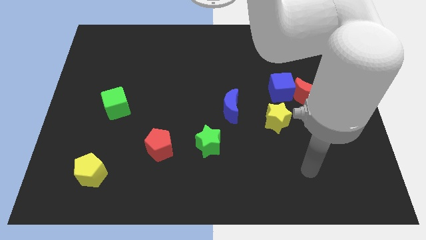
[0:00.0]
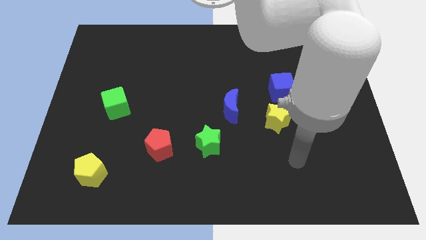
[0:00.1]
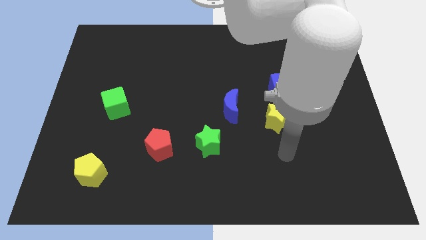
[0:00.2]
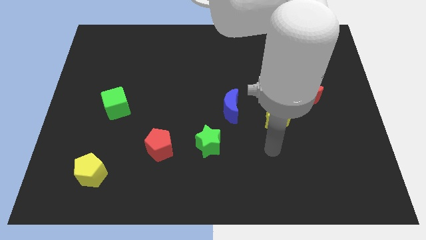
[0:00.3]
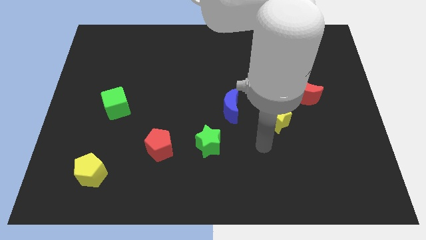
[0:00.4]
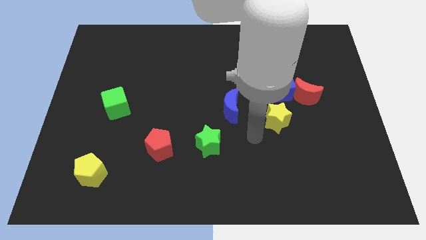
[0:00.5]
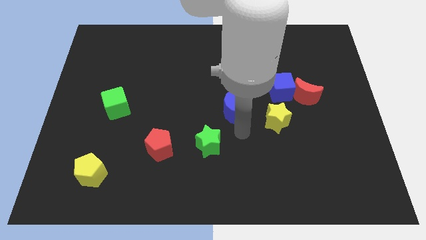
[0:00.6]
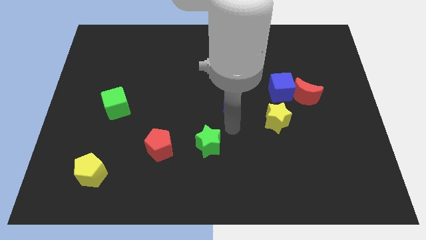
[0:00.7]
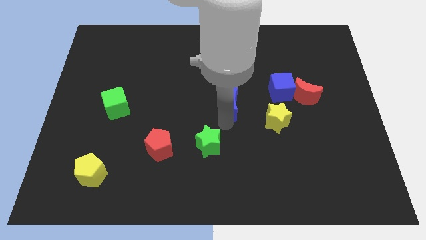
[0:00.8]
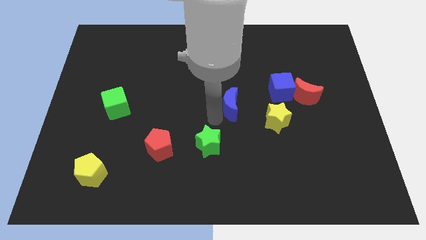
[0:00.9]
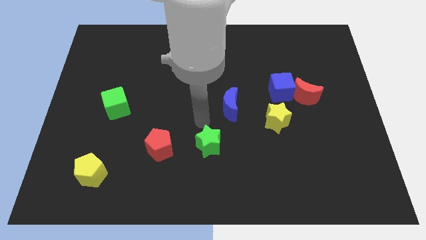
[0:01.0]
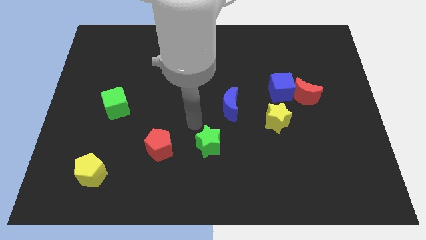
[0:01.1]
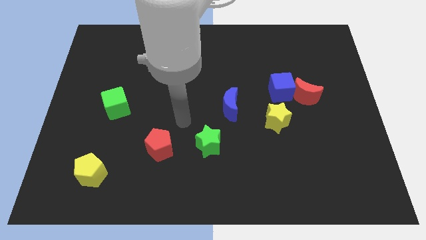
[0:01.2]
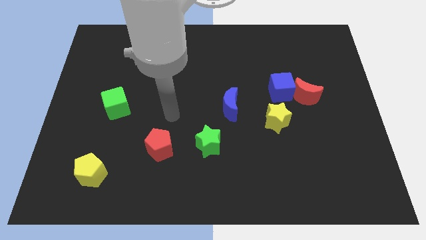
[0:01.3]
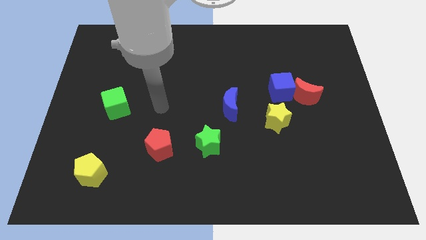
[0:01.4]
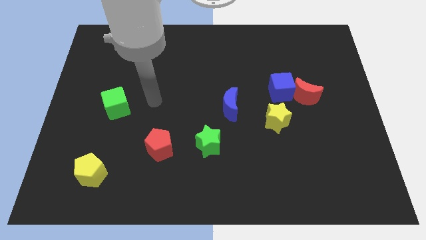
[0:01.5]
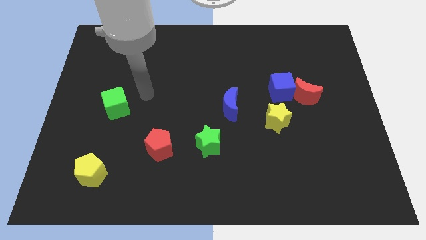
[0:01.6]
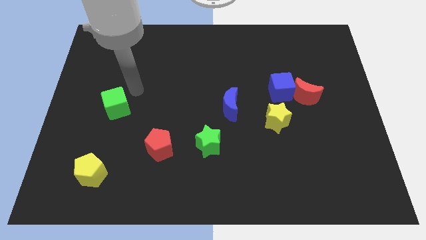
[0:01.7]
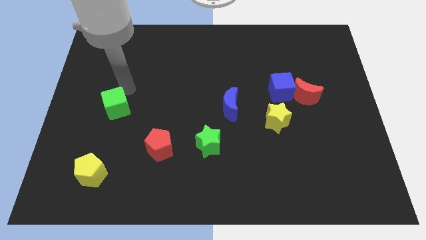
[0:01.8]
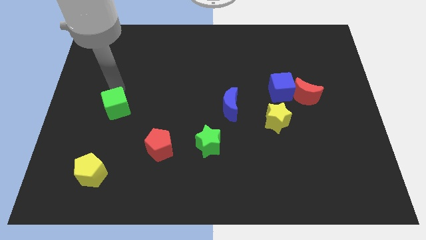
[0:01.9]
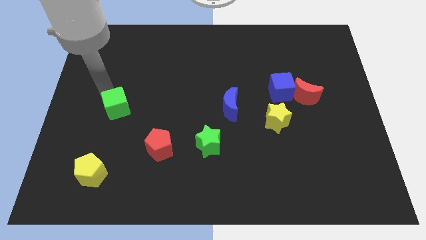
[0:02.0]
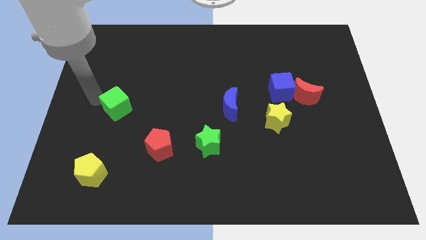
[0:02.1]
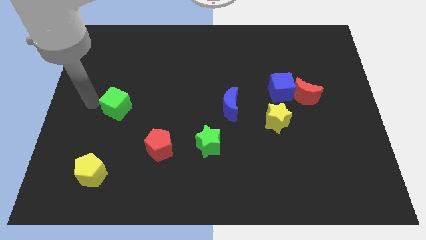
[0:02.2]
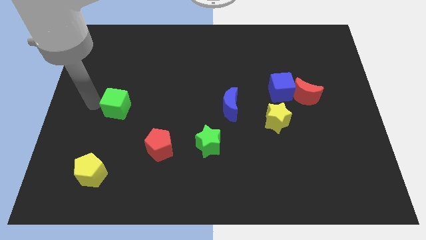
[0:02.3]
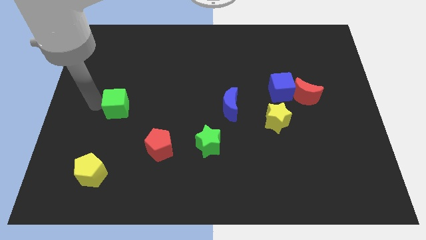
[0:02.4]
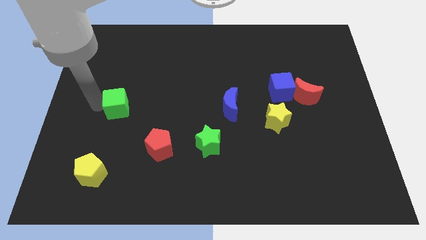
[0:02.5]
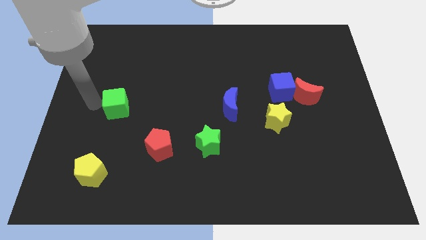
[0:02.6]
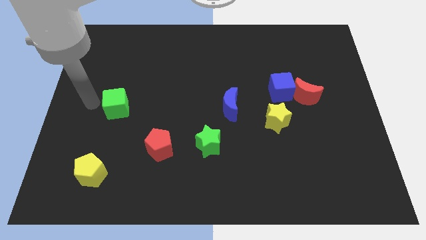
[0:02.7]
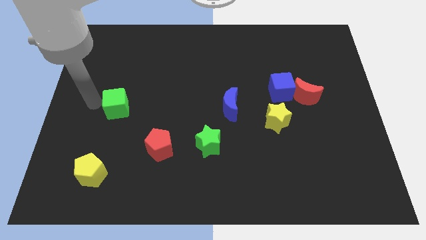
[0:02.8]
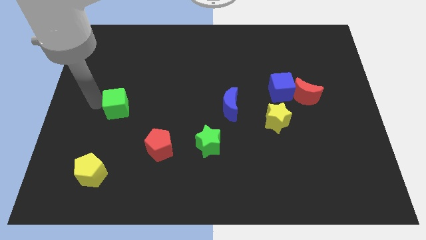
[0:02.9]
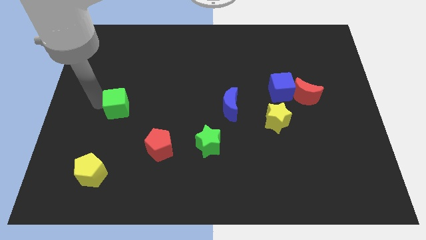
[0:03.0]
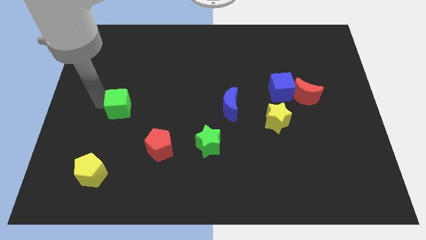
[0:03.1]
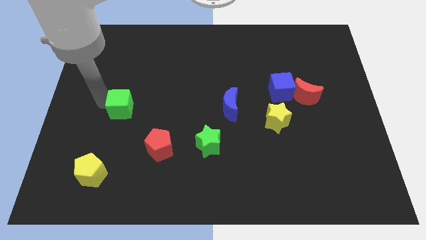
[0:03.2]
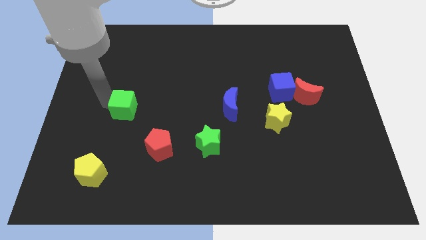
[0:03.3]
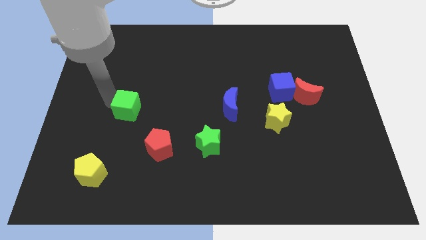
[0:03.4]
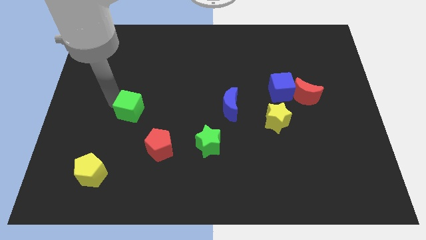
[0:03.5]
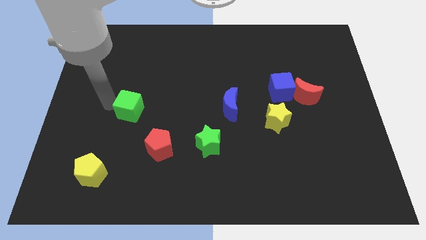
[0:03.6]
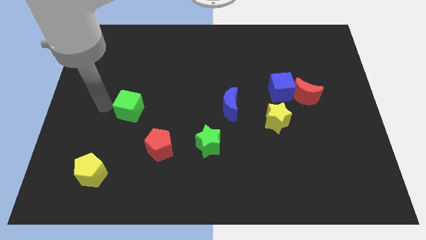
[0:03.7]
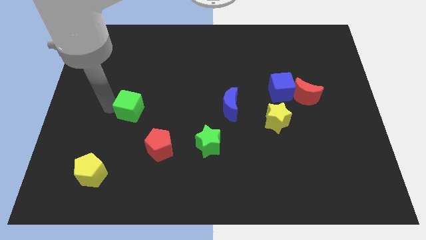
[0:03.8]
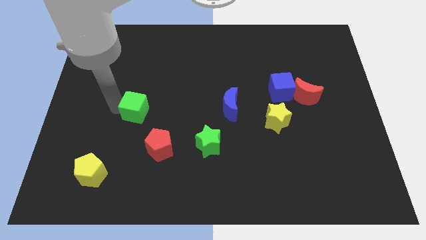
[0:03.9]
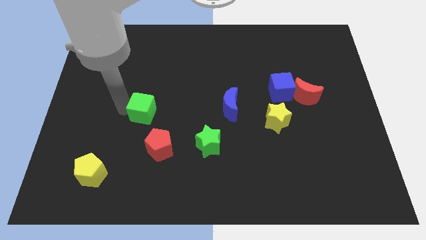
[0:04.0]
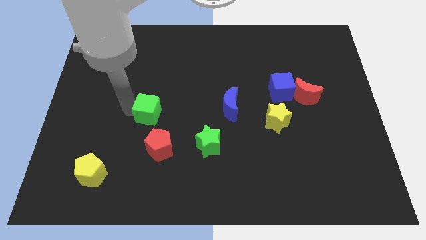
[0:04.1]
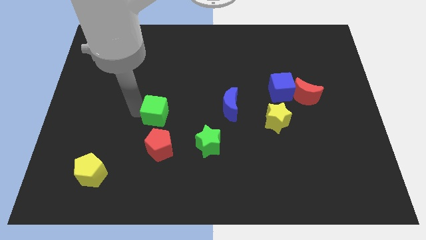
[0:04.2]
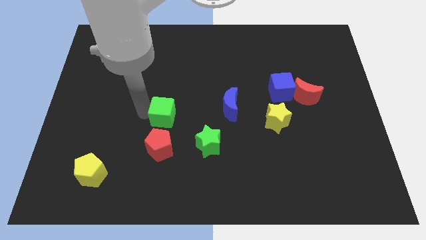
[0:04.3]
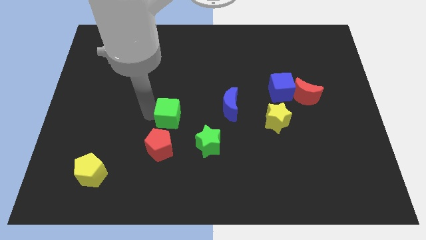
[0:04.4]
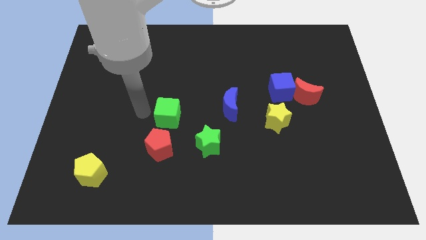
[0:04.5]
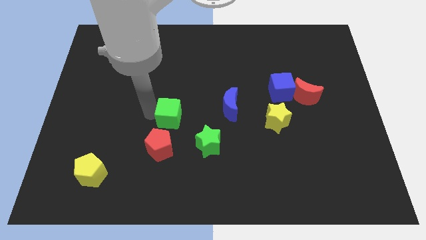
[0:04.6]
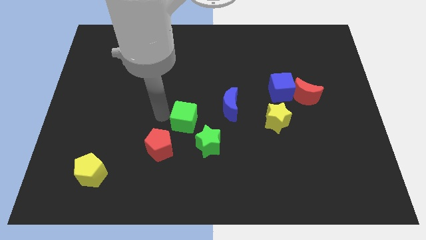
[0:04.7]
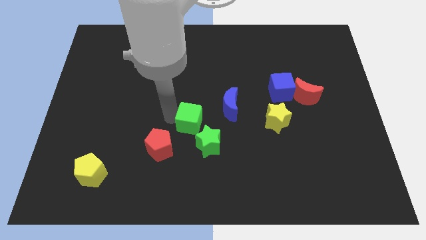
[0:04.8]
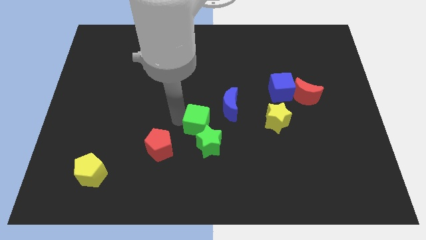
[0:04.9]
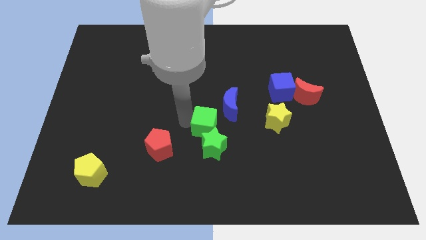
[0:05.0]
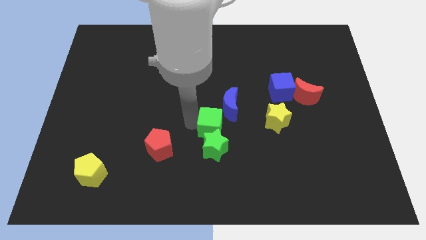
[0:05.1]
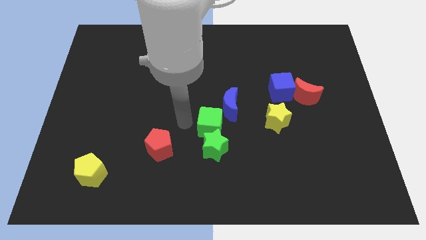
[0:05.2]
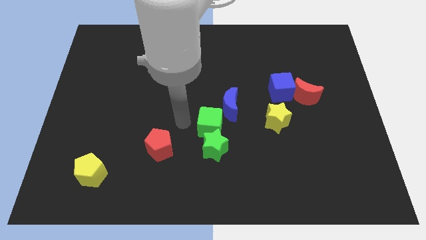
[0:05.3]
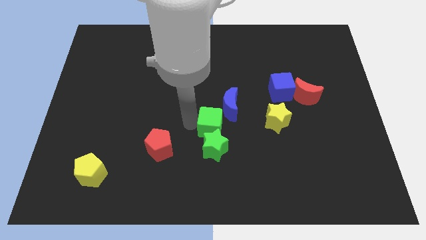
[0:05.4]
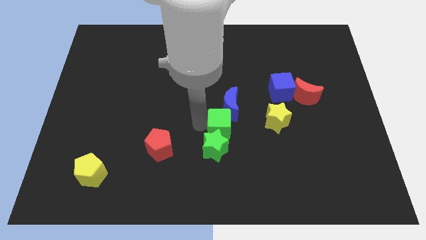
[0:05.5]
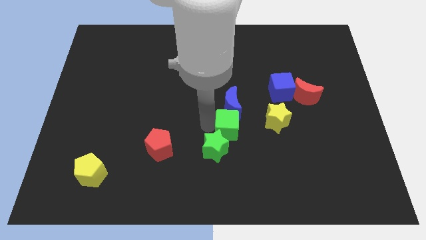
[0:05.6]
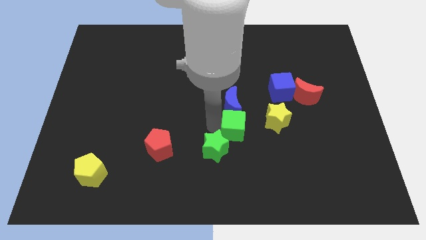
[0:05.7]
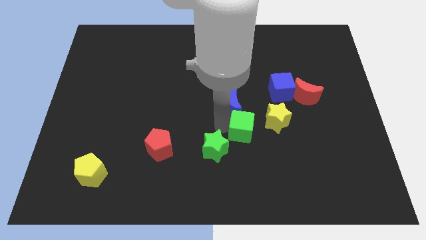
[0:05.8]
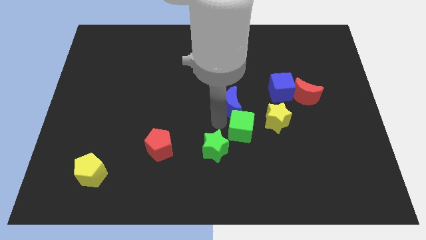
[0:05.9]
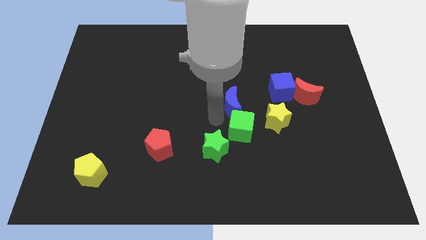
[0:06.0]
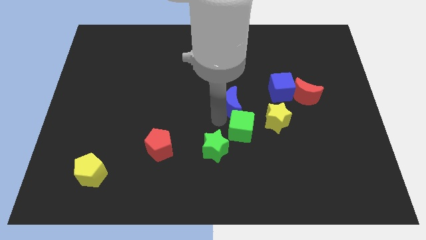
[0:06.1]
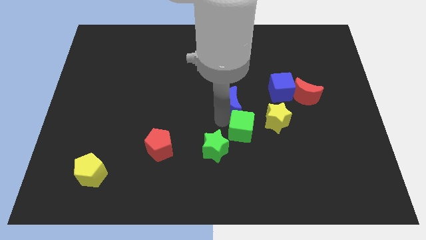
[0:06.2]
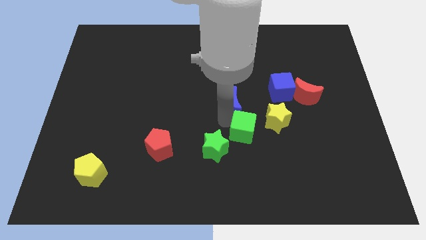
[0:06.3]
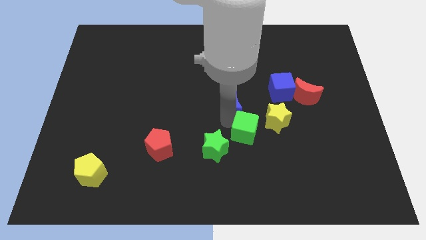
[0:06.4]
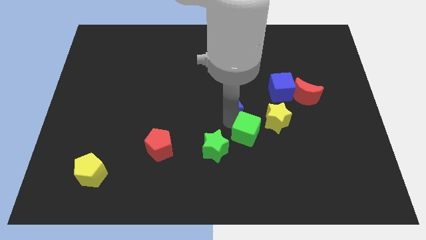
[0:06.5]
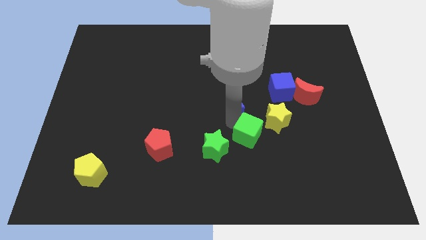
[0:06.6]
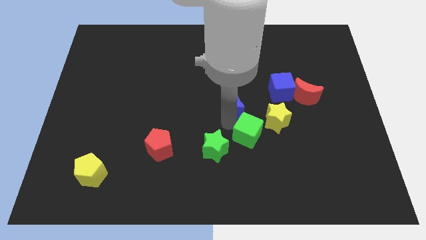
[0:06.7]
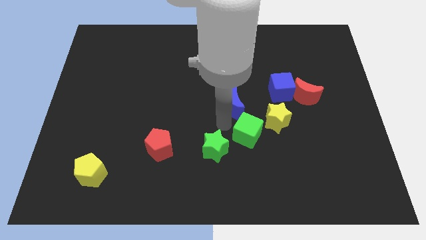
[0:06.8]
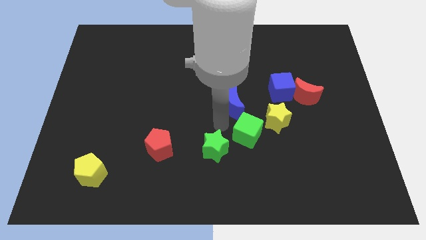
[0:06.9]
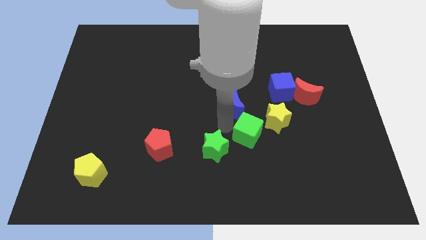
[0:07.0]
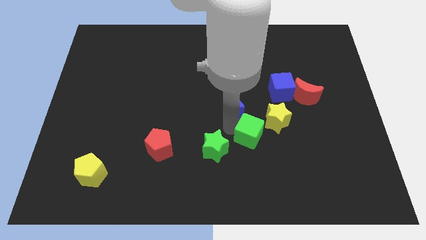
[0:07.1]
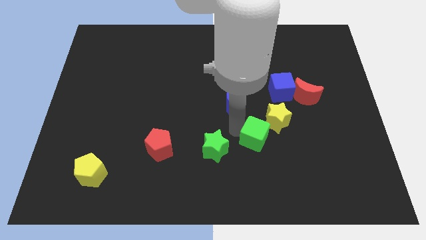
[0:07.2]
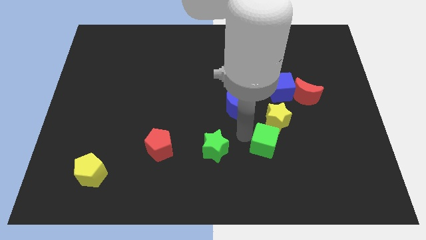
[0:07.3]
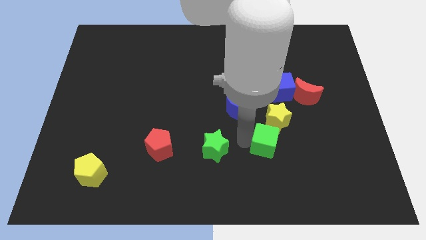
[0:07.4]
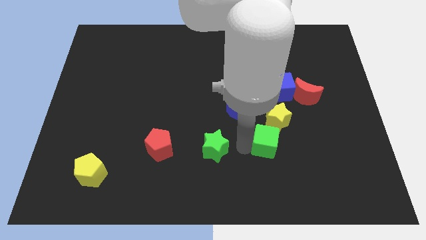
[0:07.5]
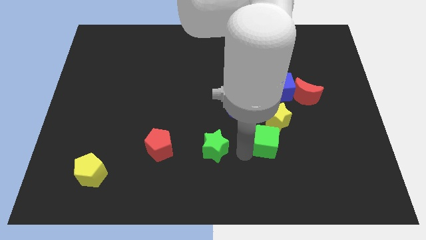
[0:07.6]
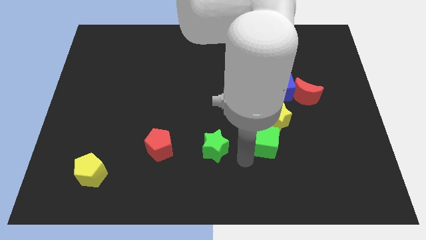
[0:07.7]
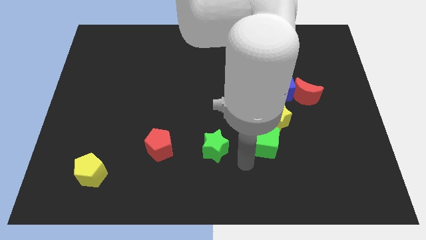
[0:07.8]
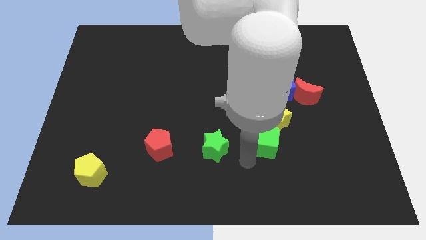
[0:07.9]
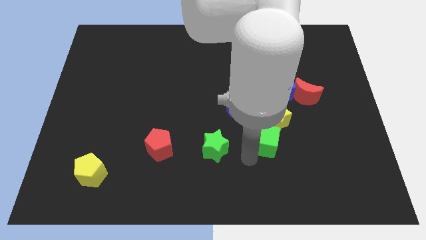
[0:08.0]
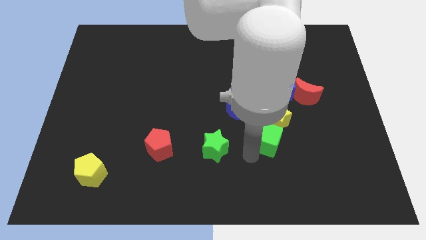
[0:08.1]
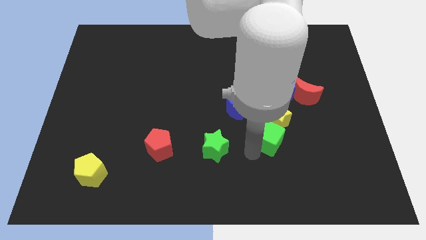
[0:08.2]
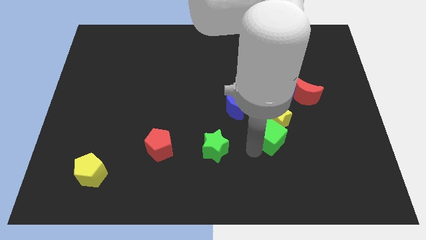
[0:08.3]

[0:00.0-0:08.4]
slide the green cube below the blue cube
